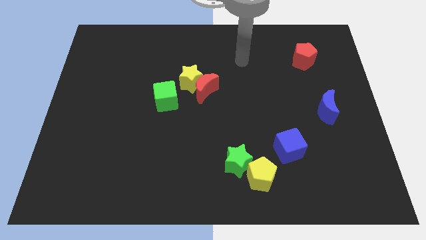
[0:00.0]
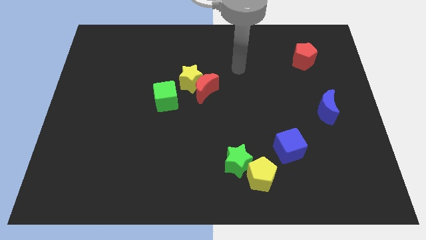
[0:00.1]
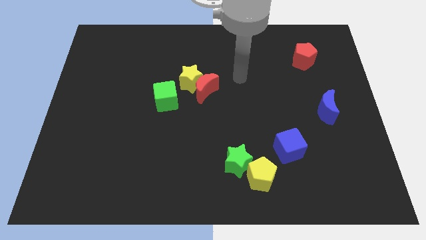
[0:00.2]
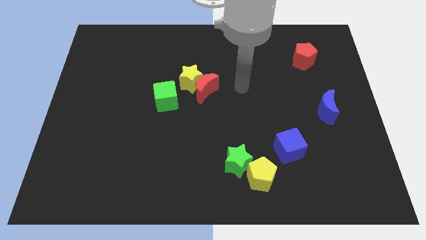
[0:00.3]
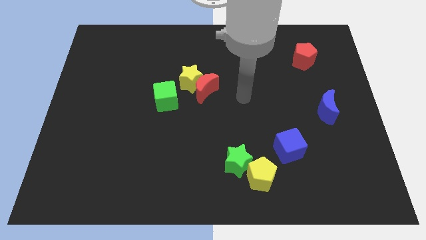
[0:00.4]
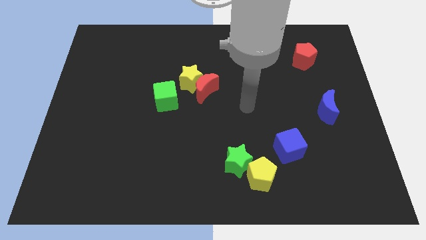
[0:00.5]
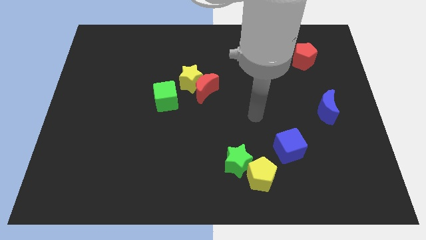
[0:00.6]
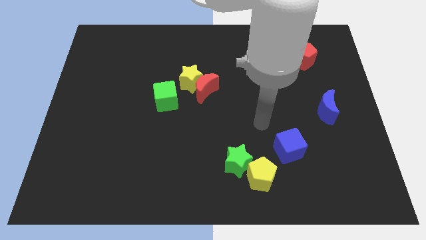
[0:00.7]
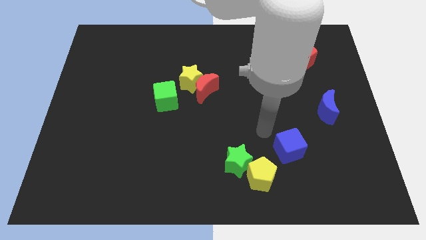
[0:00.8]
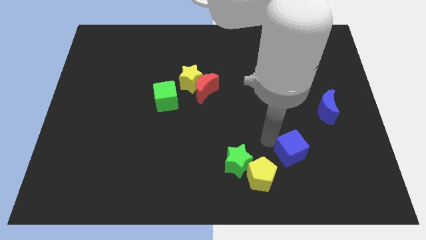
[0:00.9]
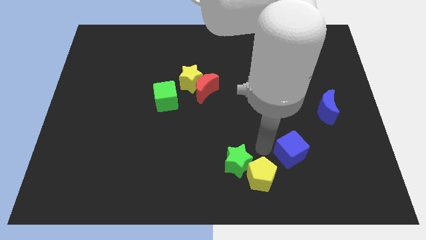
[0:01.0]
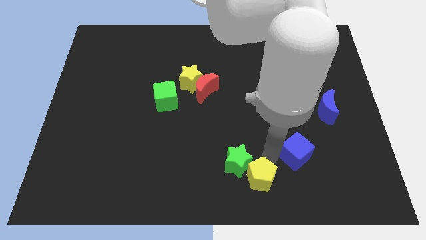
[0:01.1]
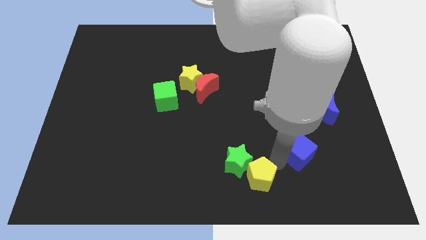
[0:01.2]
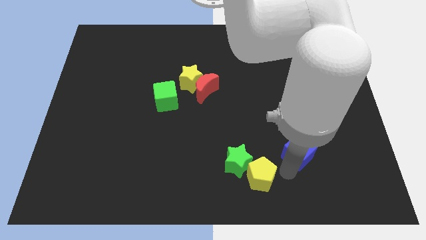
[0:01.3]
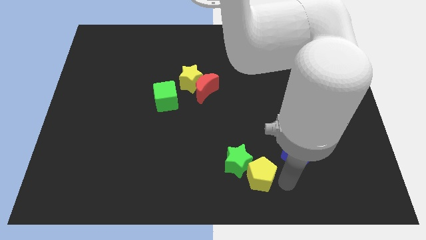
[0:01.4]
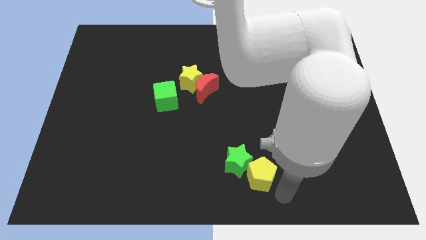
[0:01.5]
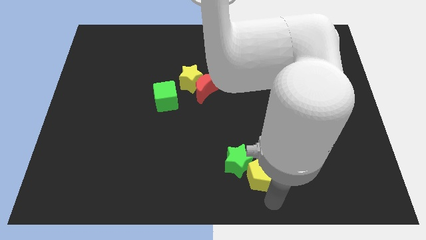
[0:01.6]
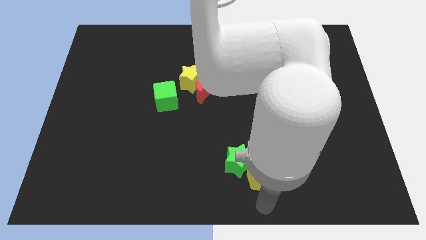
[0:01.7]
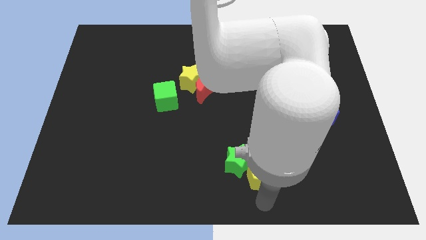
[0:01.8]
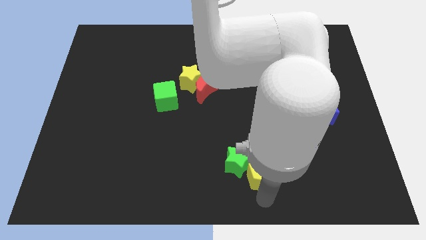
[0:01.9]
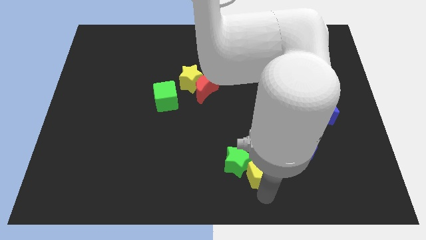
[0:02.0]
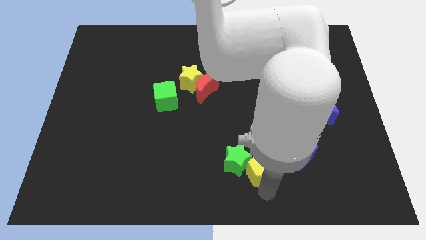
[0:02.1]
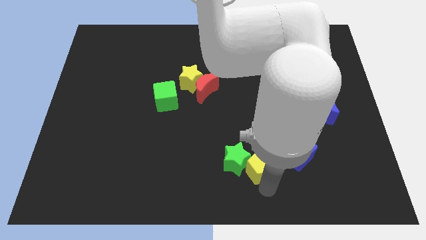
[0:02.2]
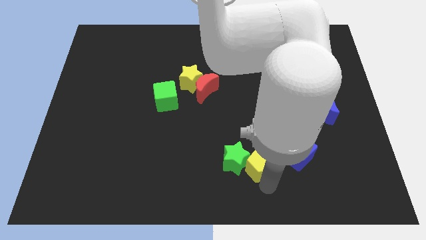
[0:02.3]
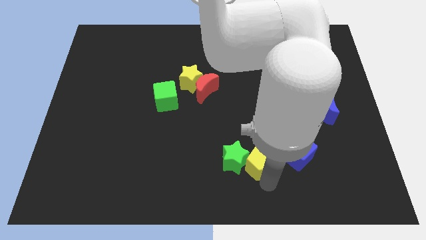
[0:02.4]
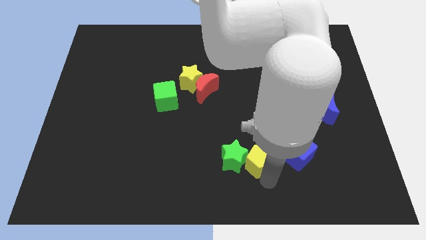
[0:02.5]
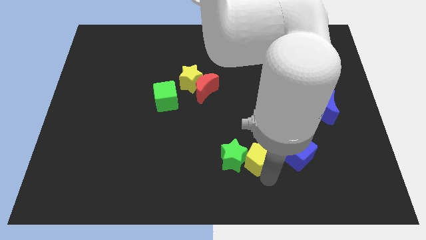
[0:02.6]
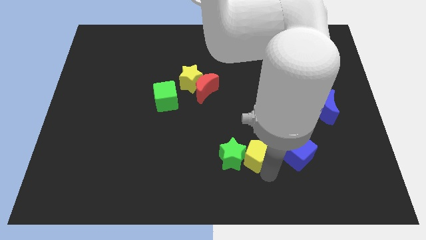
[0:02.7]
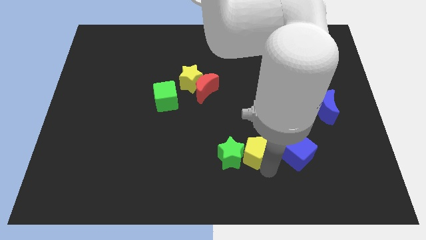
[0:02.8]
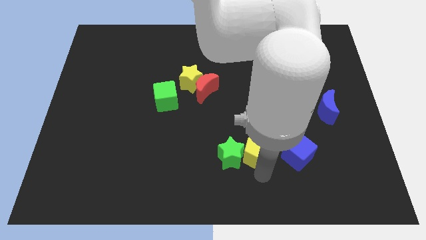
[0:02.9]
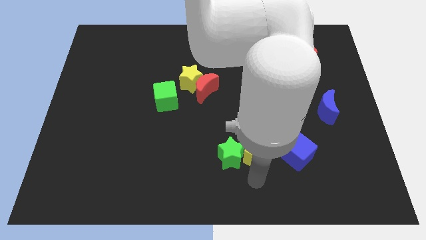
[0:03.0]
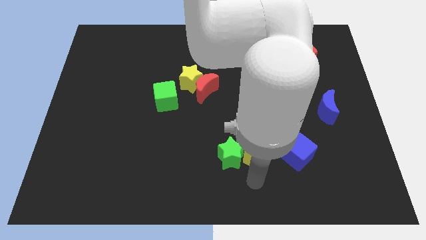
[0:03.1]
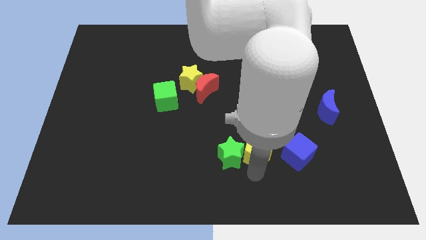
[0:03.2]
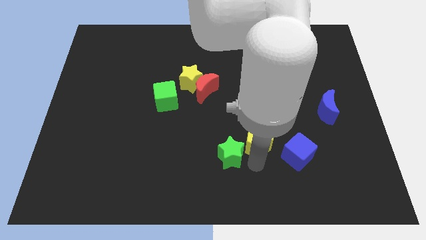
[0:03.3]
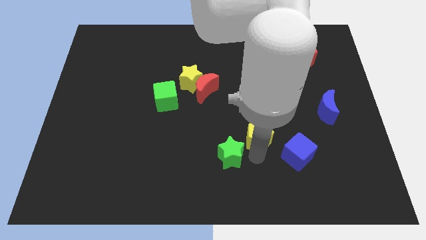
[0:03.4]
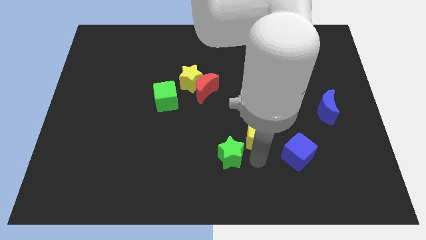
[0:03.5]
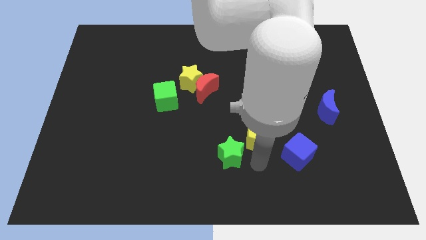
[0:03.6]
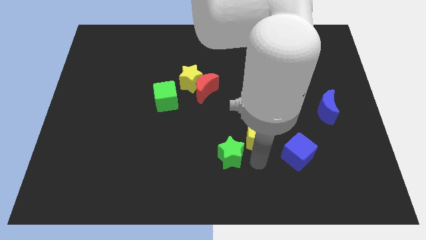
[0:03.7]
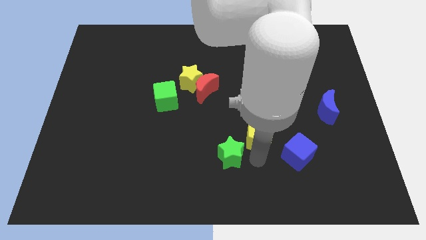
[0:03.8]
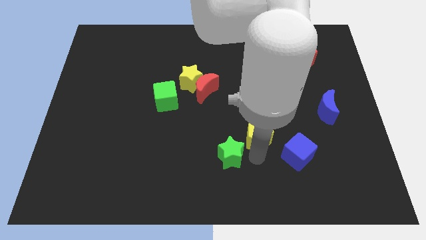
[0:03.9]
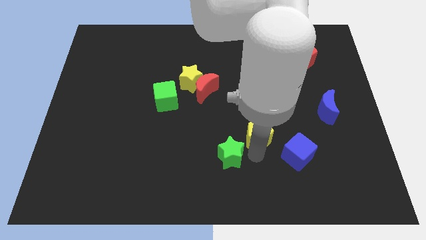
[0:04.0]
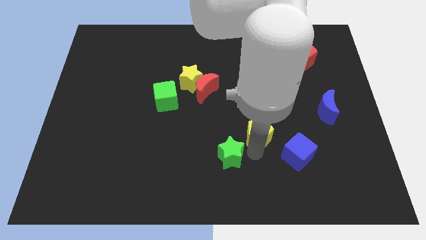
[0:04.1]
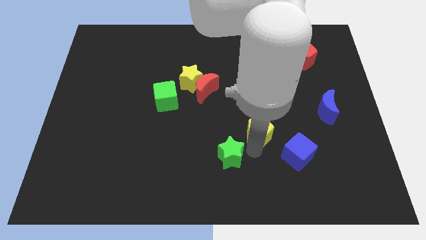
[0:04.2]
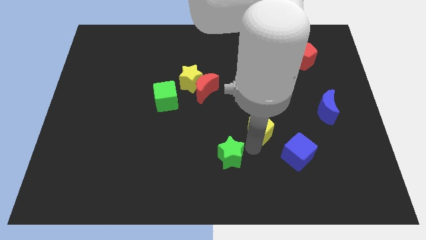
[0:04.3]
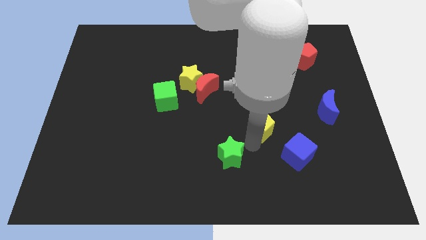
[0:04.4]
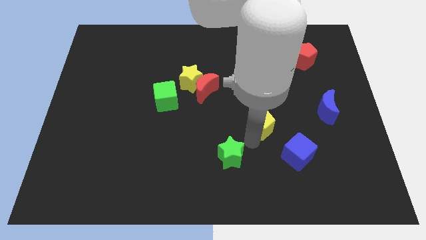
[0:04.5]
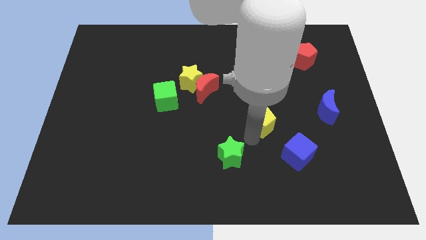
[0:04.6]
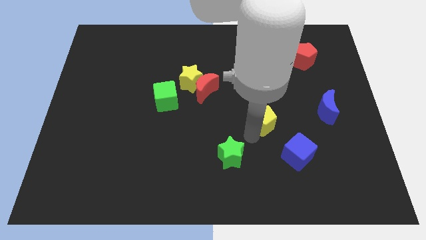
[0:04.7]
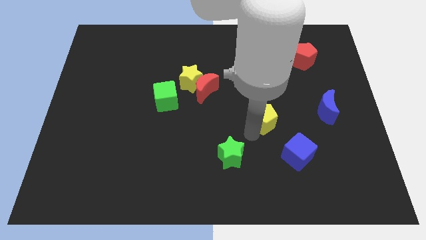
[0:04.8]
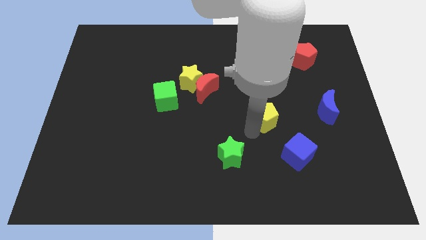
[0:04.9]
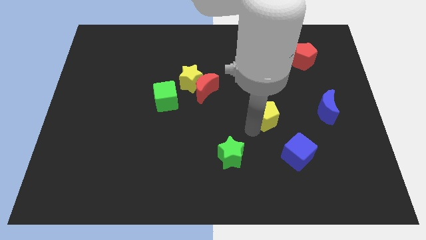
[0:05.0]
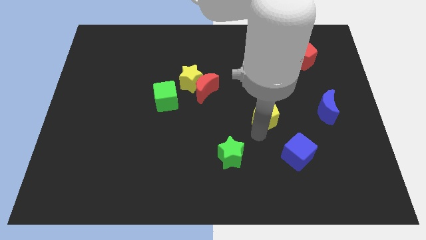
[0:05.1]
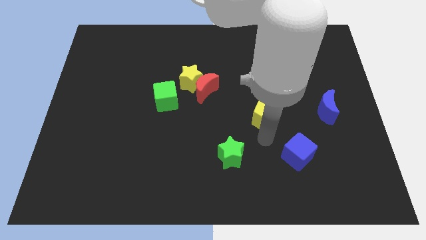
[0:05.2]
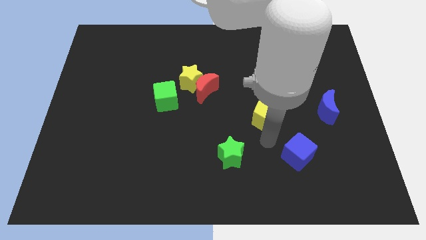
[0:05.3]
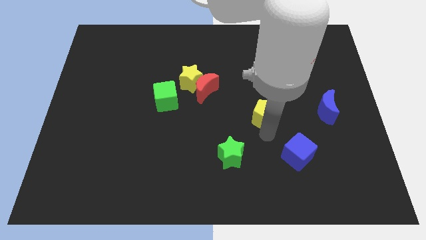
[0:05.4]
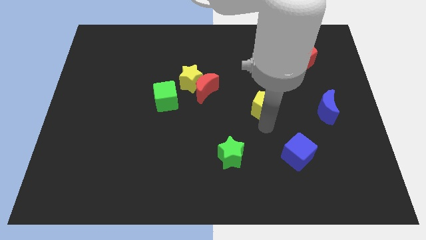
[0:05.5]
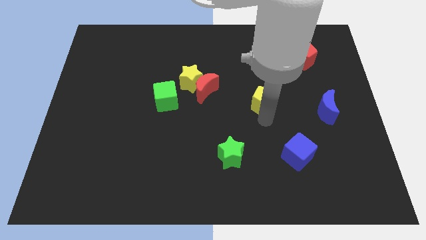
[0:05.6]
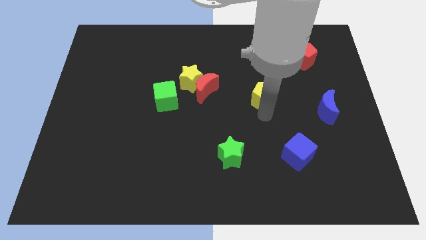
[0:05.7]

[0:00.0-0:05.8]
push the yellow pentagon up

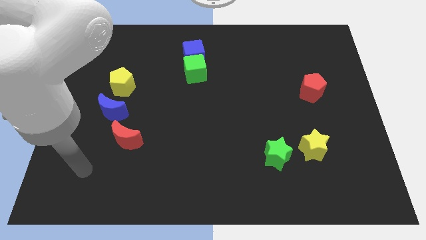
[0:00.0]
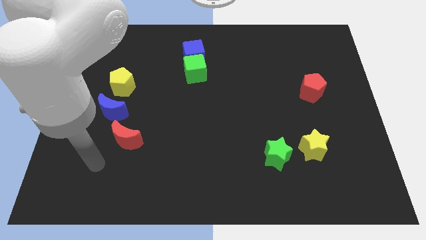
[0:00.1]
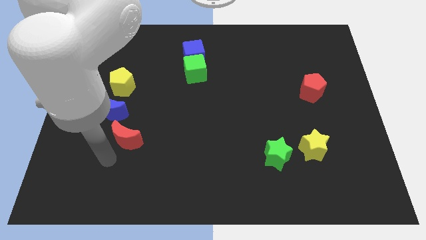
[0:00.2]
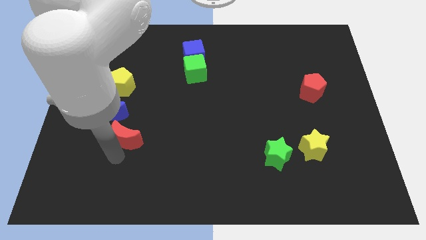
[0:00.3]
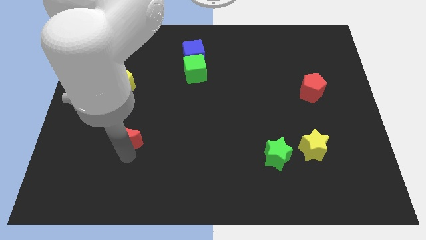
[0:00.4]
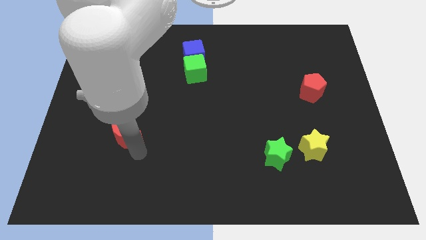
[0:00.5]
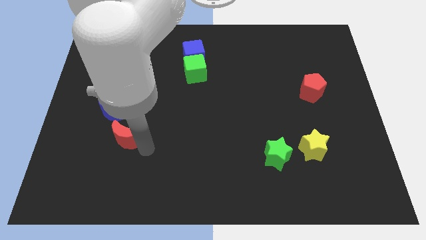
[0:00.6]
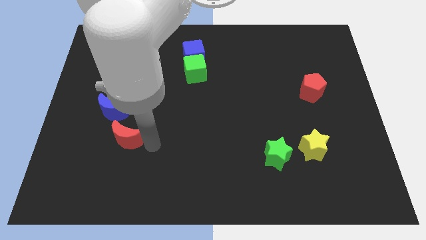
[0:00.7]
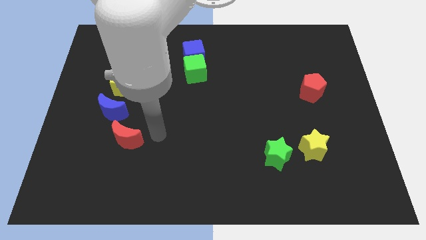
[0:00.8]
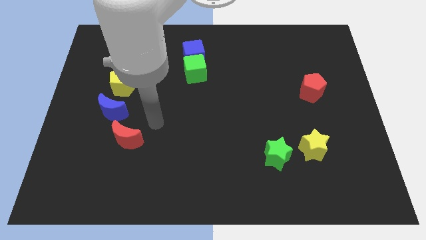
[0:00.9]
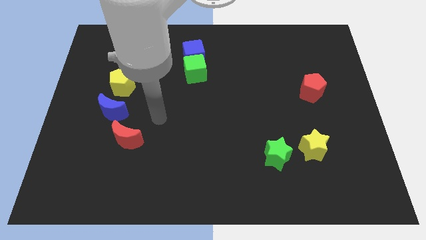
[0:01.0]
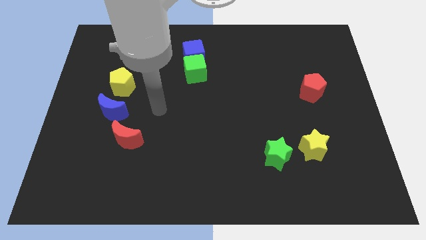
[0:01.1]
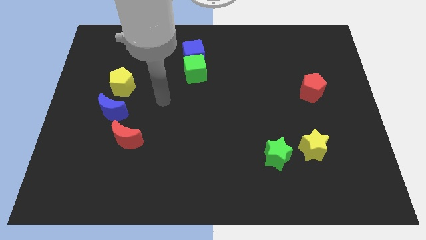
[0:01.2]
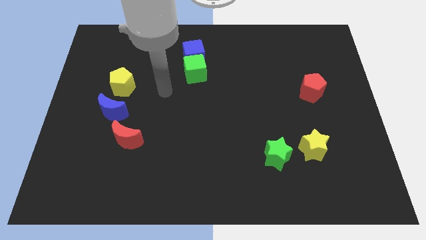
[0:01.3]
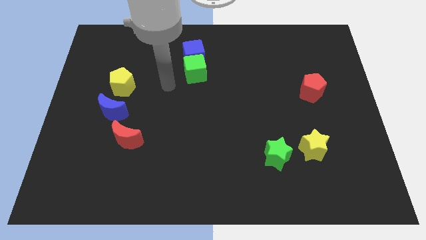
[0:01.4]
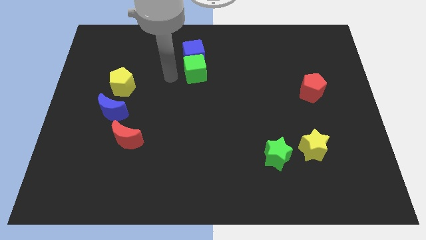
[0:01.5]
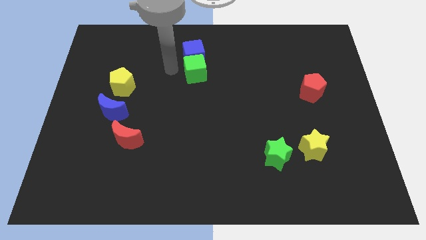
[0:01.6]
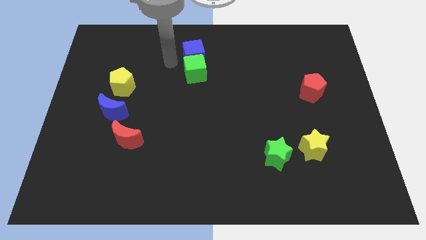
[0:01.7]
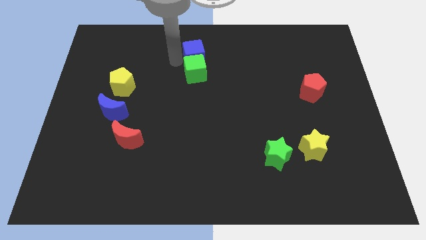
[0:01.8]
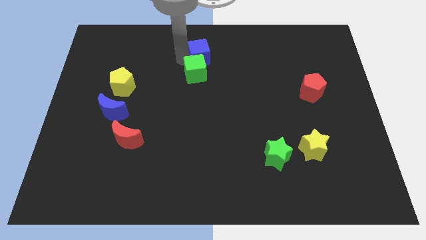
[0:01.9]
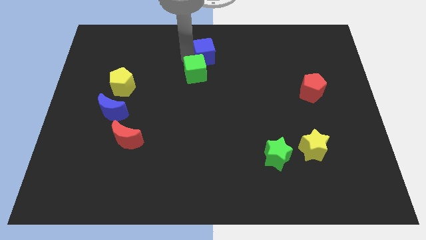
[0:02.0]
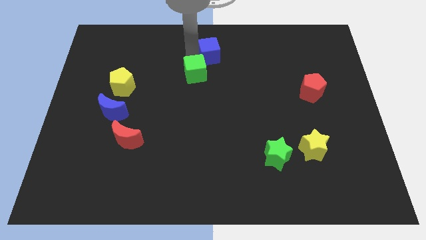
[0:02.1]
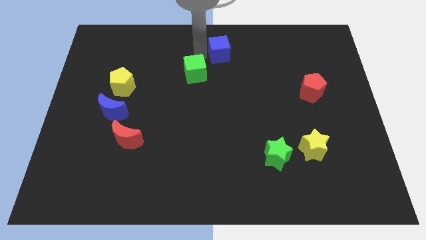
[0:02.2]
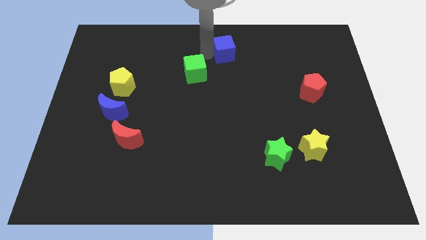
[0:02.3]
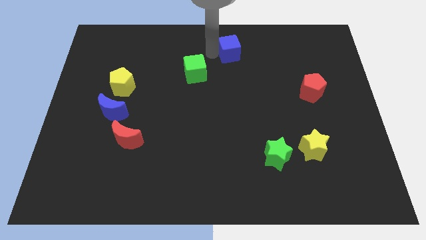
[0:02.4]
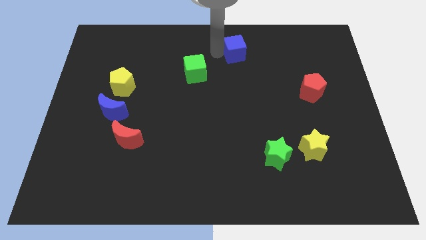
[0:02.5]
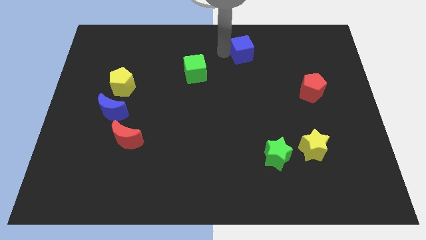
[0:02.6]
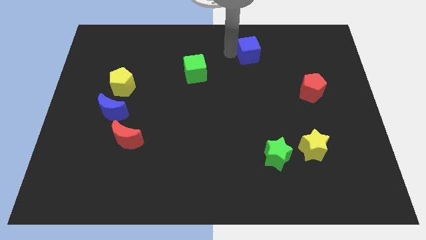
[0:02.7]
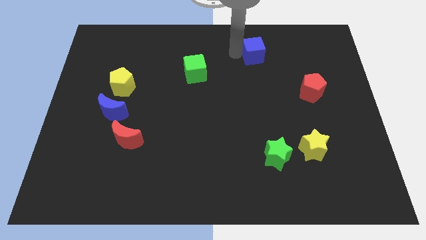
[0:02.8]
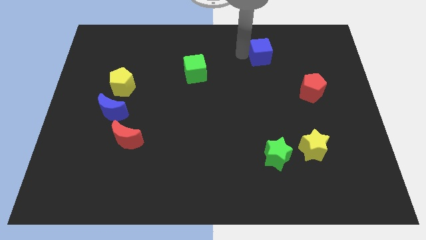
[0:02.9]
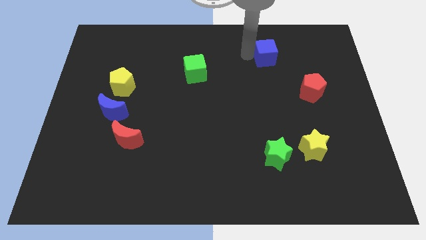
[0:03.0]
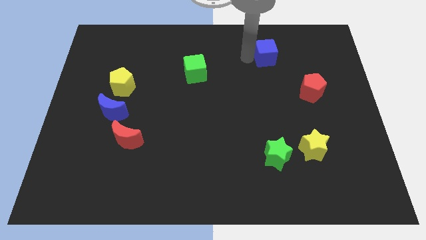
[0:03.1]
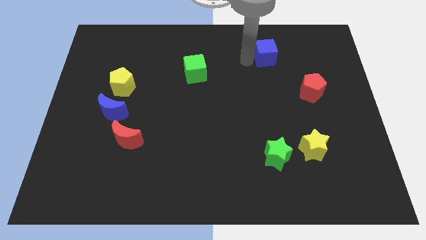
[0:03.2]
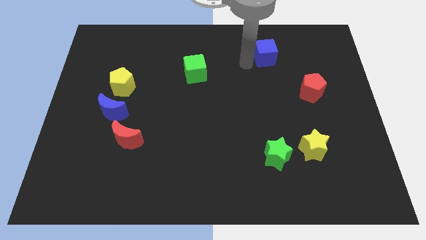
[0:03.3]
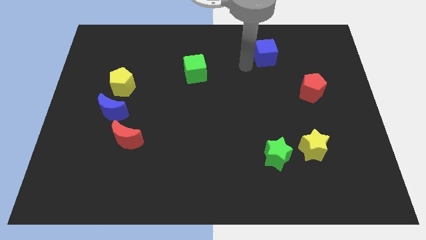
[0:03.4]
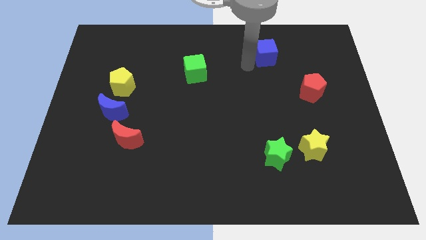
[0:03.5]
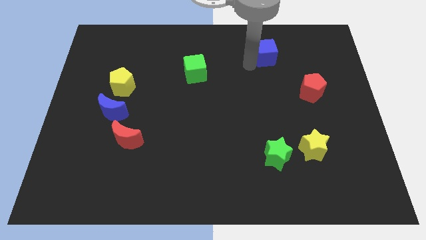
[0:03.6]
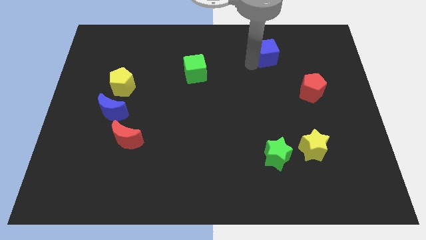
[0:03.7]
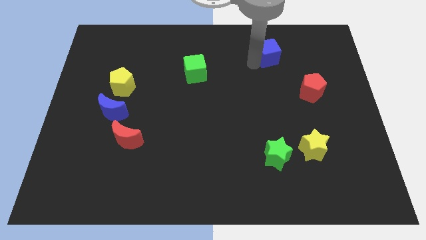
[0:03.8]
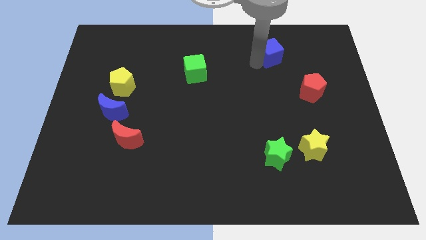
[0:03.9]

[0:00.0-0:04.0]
slide the blue cube to the right
